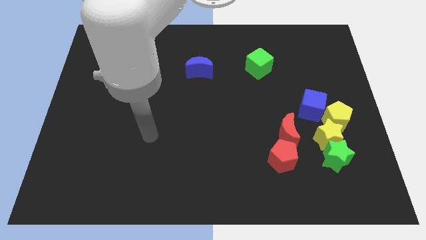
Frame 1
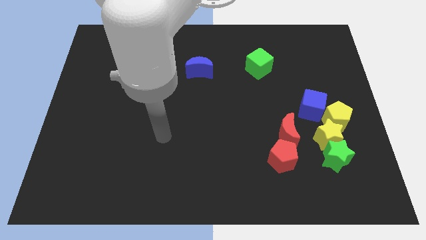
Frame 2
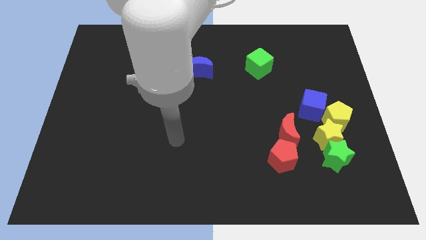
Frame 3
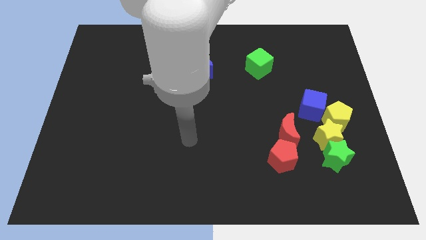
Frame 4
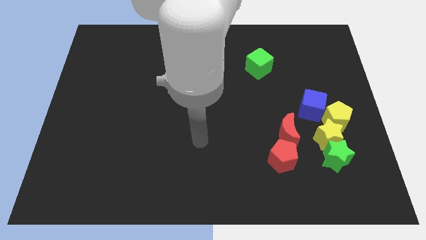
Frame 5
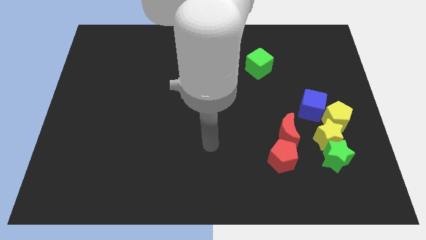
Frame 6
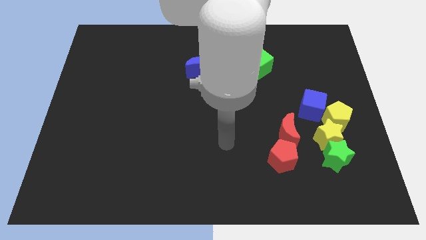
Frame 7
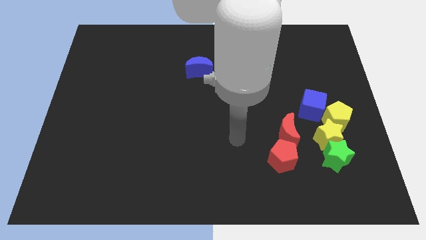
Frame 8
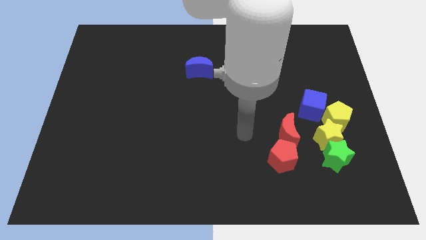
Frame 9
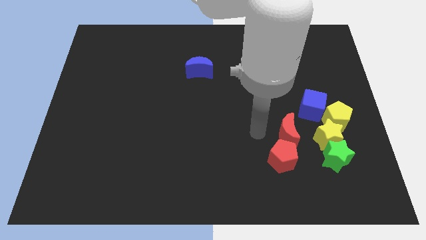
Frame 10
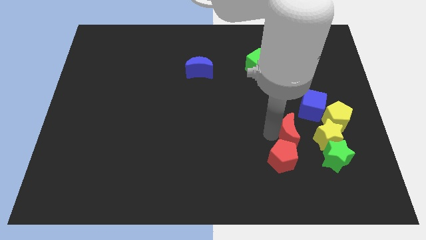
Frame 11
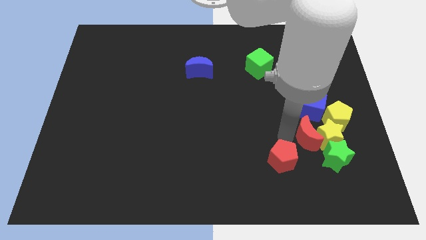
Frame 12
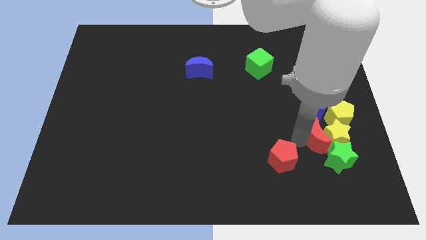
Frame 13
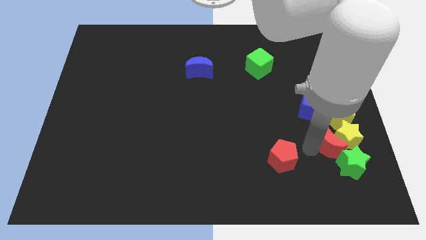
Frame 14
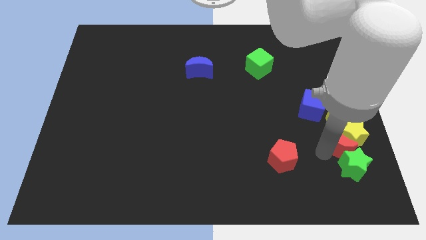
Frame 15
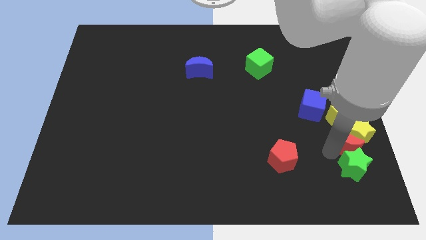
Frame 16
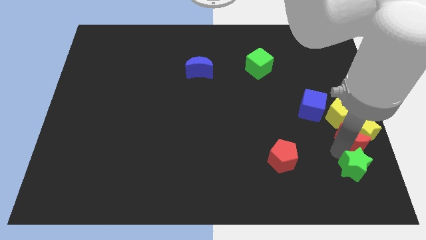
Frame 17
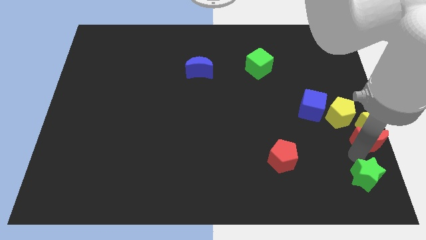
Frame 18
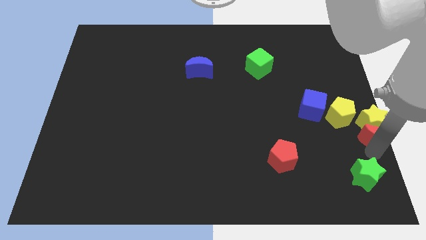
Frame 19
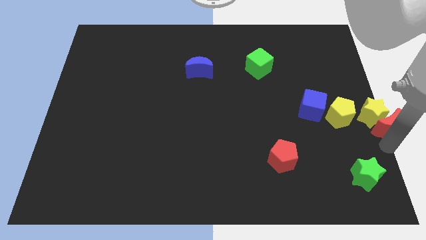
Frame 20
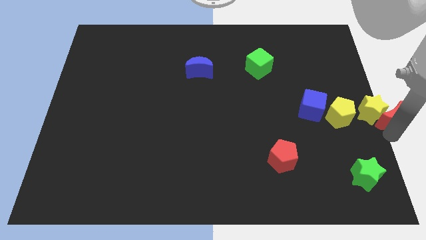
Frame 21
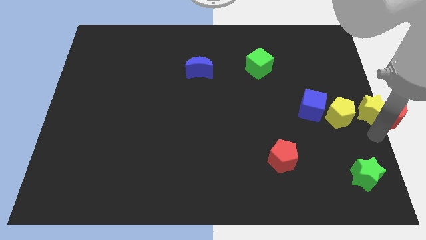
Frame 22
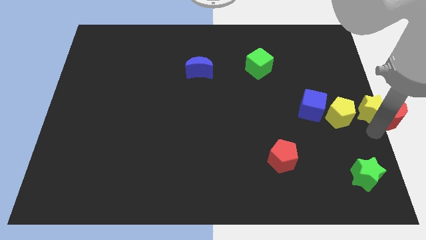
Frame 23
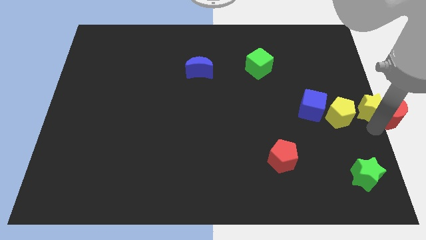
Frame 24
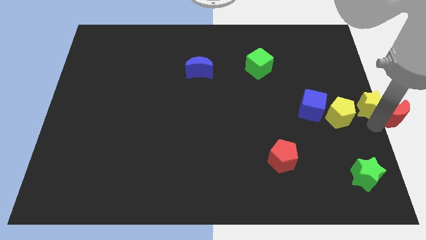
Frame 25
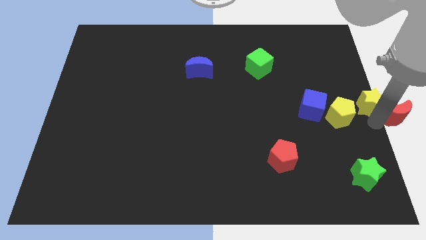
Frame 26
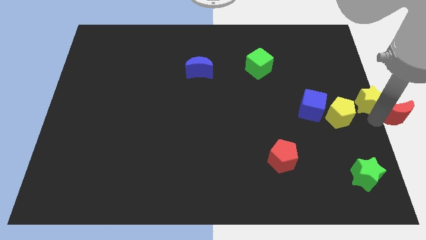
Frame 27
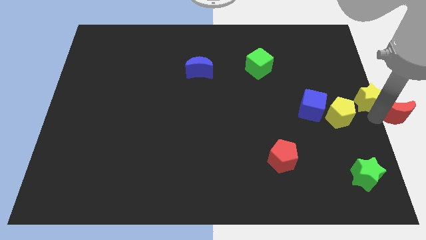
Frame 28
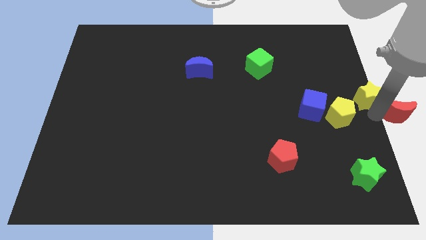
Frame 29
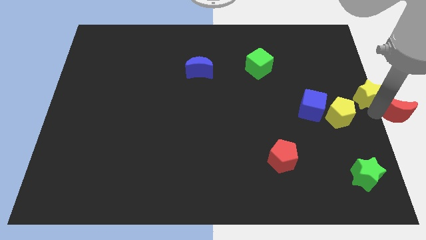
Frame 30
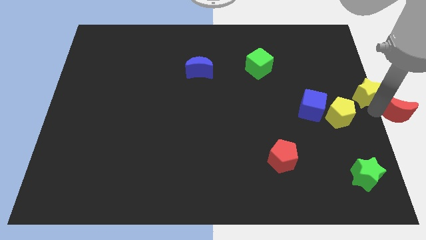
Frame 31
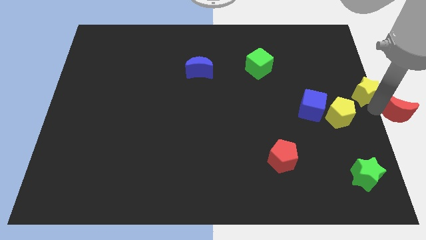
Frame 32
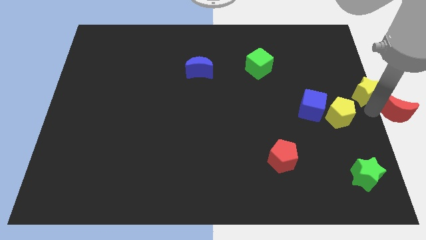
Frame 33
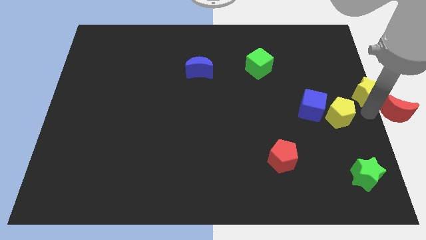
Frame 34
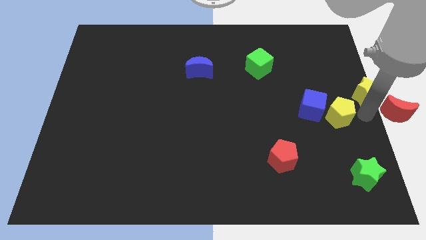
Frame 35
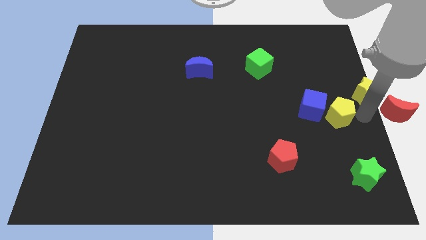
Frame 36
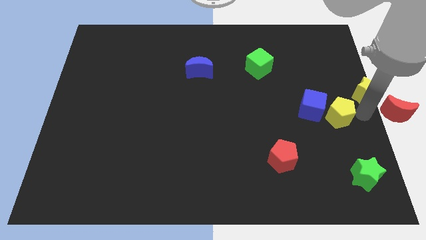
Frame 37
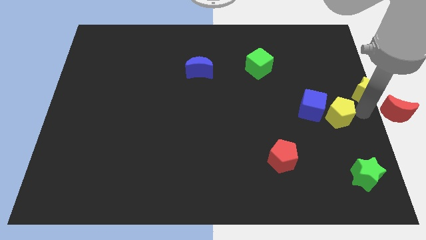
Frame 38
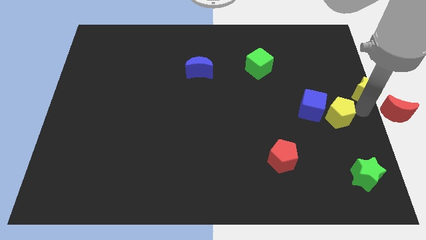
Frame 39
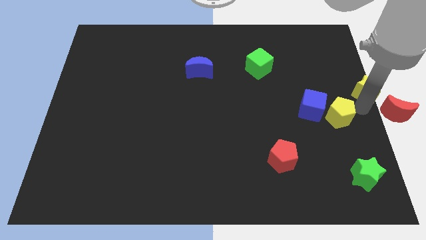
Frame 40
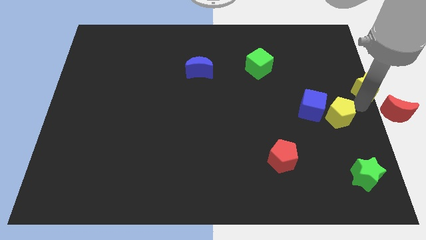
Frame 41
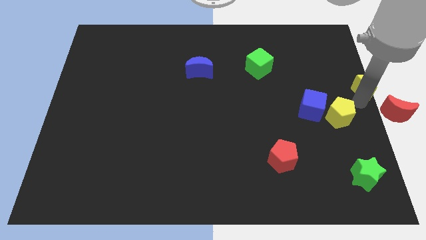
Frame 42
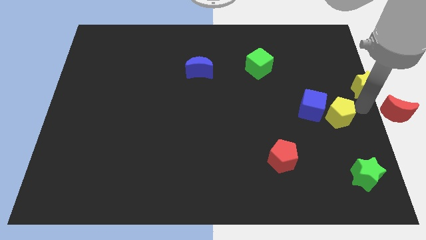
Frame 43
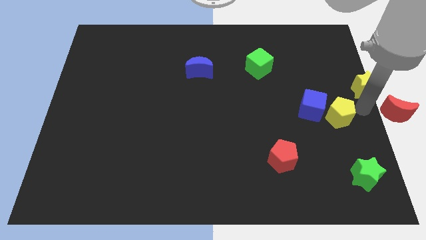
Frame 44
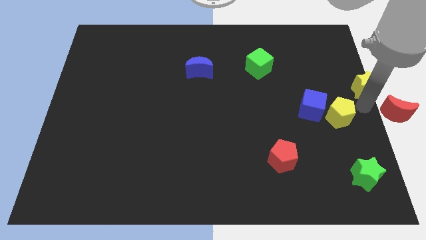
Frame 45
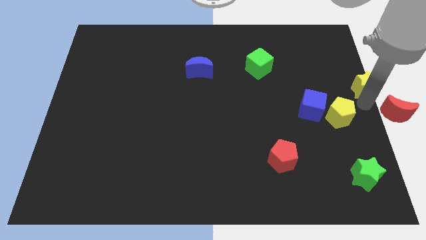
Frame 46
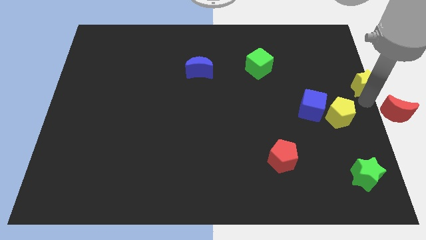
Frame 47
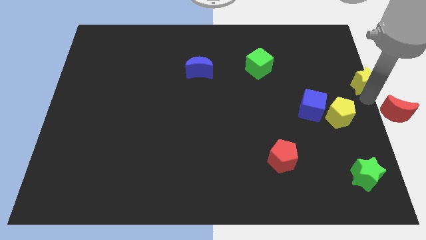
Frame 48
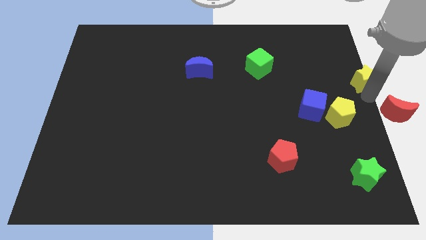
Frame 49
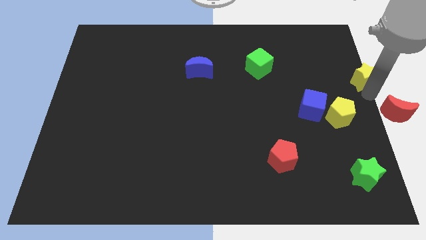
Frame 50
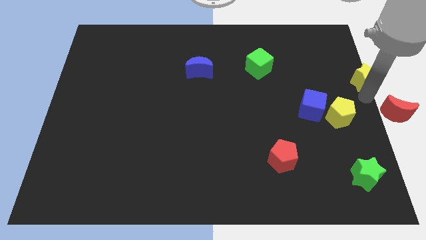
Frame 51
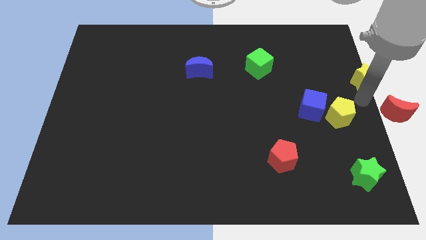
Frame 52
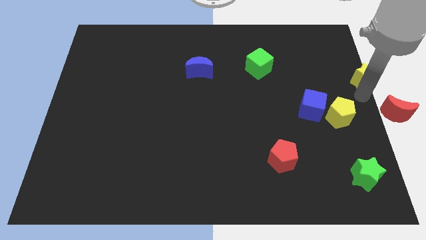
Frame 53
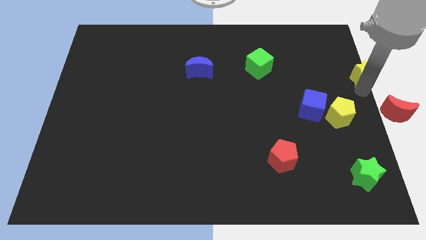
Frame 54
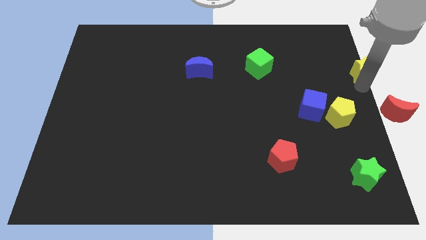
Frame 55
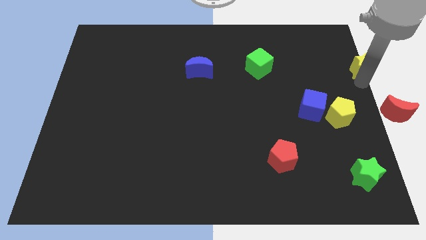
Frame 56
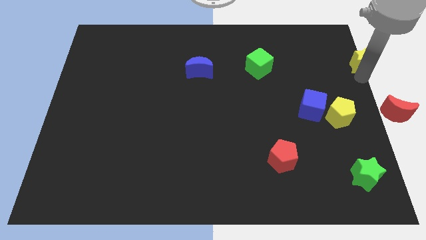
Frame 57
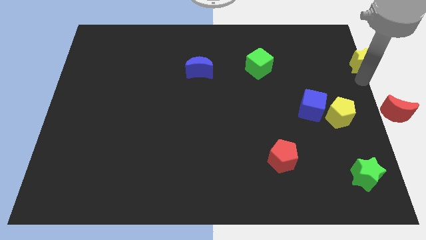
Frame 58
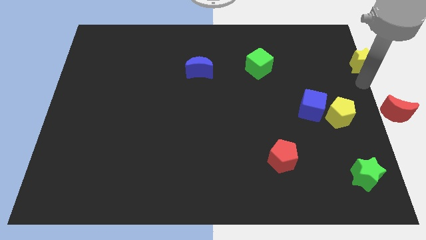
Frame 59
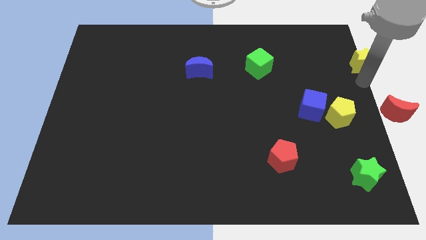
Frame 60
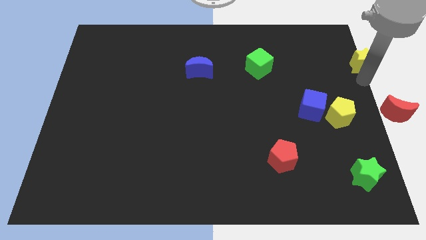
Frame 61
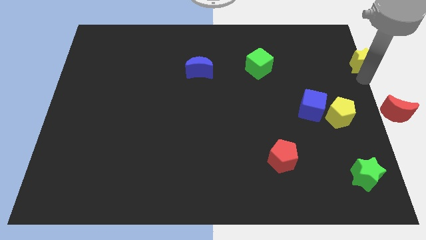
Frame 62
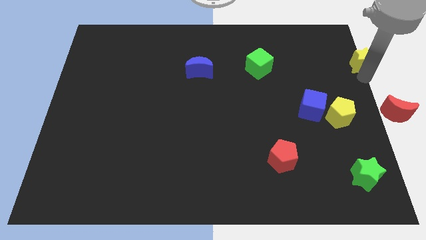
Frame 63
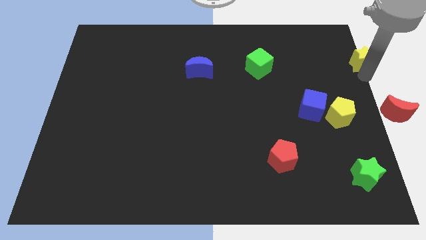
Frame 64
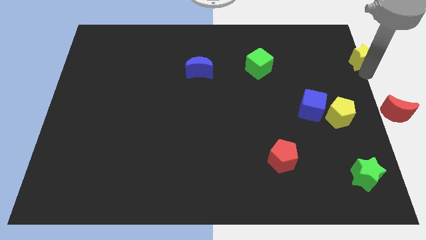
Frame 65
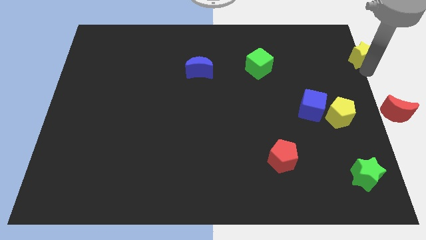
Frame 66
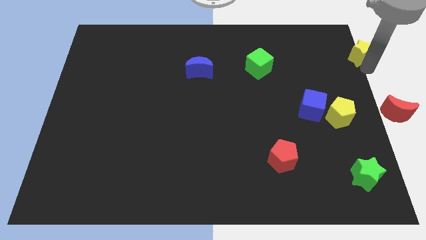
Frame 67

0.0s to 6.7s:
push the yellow star to the top right of the board
